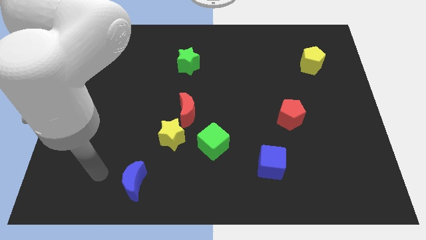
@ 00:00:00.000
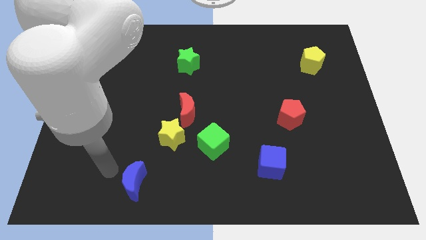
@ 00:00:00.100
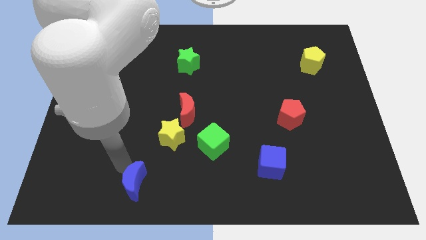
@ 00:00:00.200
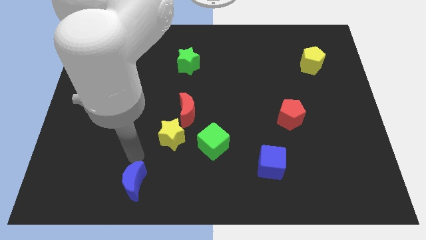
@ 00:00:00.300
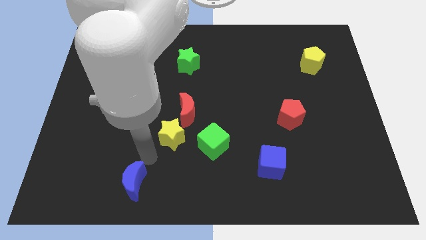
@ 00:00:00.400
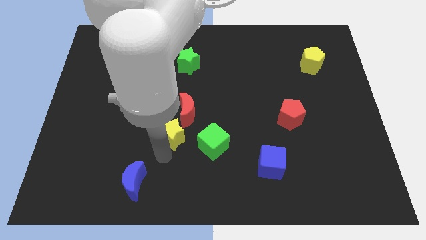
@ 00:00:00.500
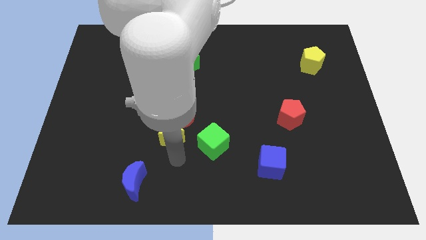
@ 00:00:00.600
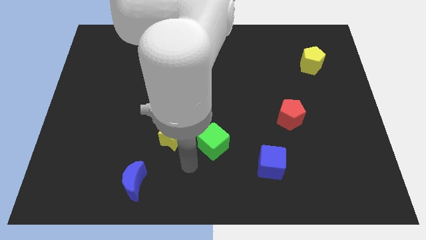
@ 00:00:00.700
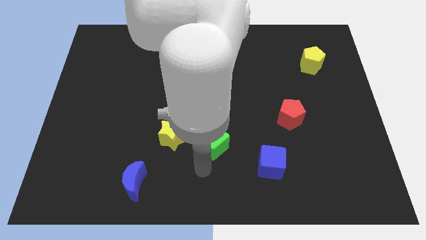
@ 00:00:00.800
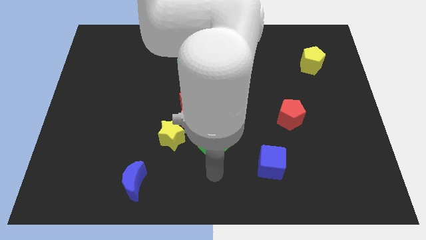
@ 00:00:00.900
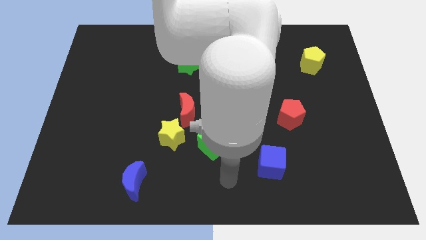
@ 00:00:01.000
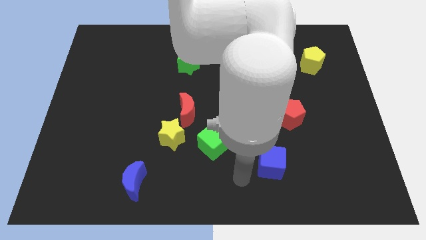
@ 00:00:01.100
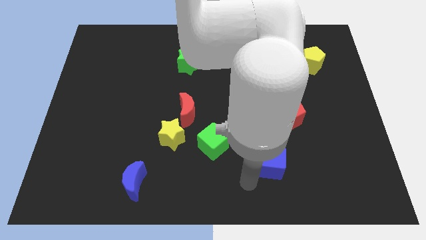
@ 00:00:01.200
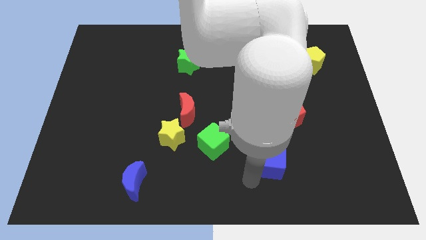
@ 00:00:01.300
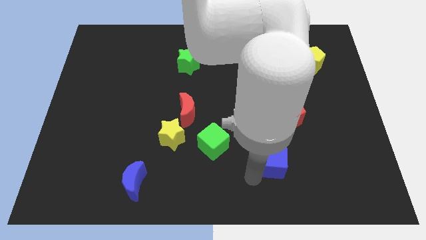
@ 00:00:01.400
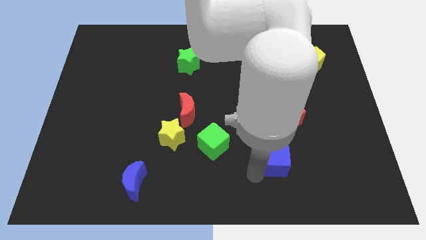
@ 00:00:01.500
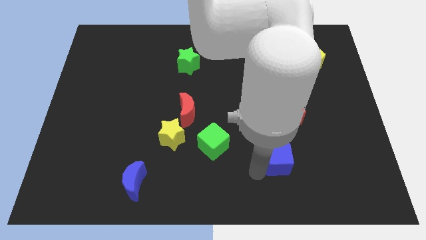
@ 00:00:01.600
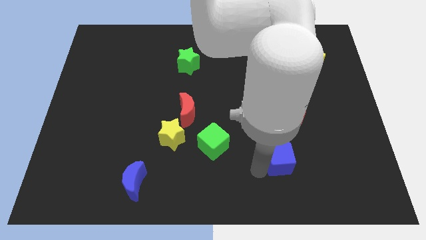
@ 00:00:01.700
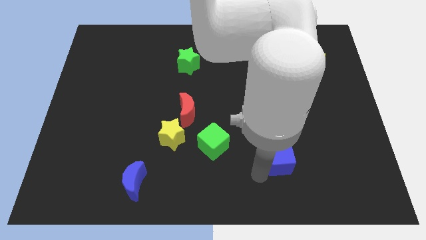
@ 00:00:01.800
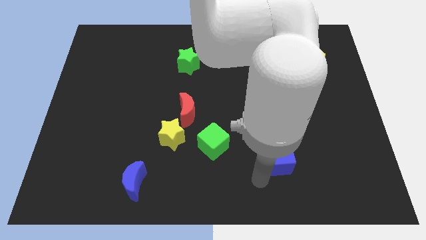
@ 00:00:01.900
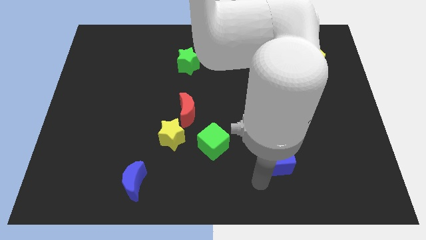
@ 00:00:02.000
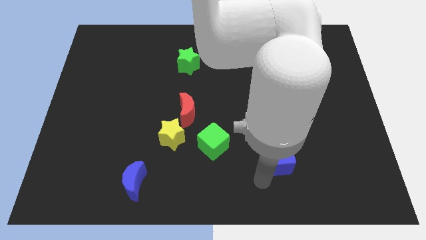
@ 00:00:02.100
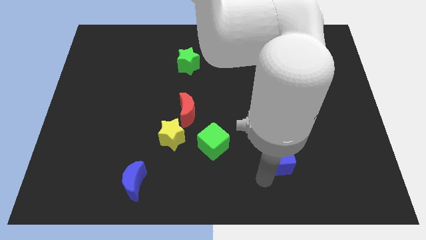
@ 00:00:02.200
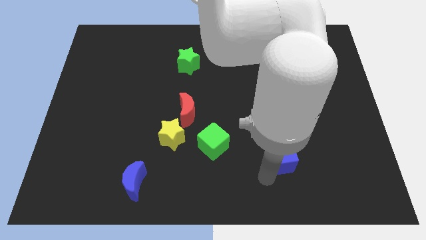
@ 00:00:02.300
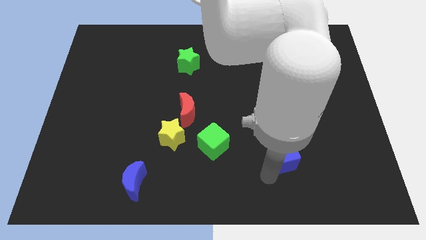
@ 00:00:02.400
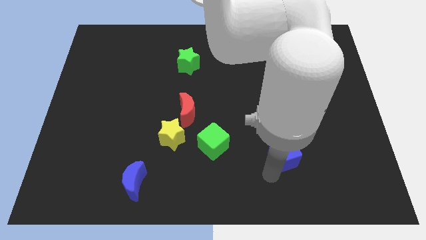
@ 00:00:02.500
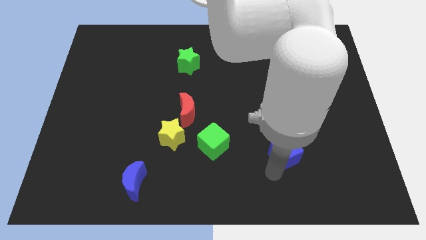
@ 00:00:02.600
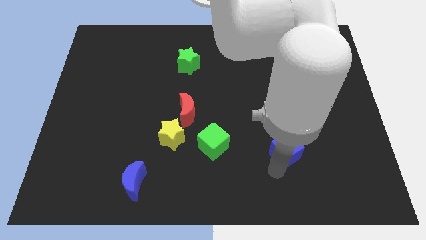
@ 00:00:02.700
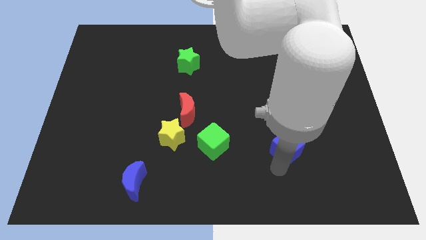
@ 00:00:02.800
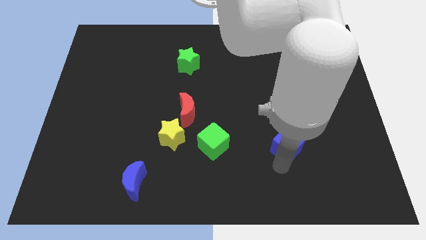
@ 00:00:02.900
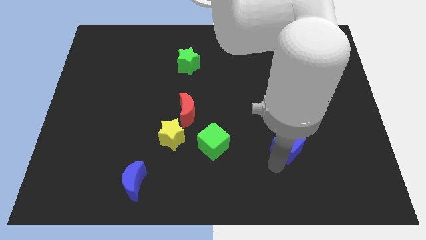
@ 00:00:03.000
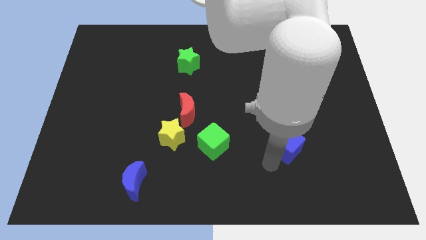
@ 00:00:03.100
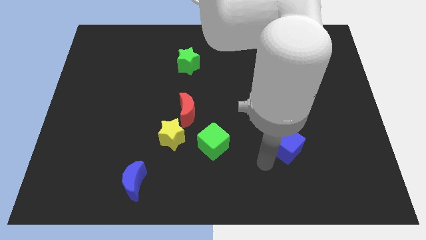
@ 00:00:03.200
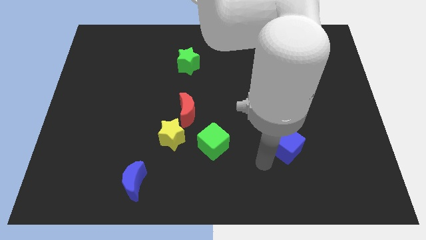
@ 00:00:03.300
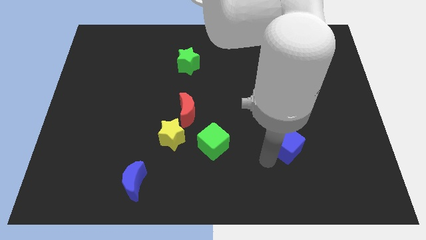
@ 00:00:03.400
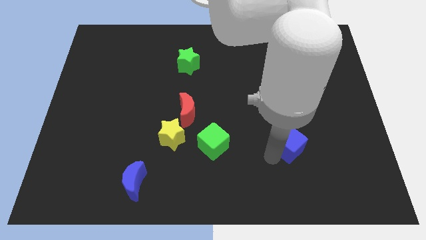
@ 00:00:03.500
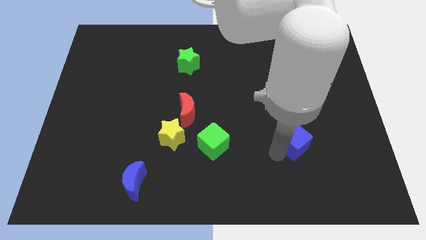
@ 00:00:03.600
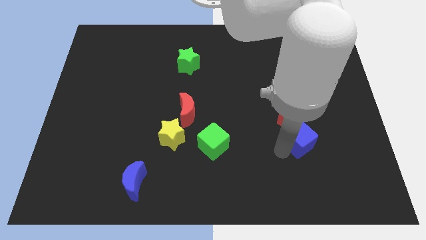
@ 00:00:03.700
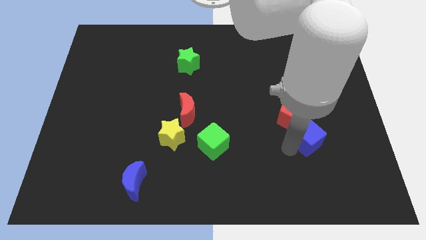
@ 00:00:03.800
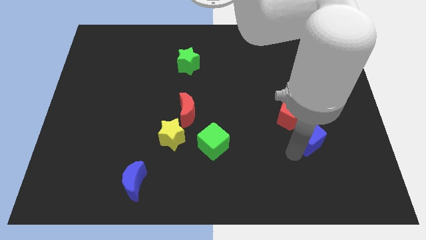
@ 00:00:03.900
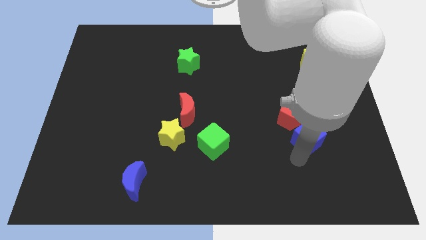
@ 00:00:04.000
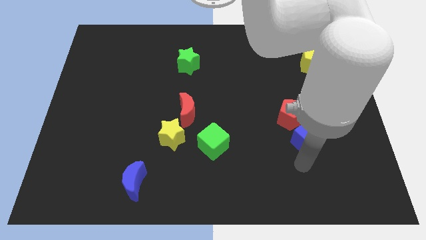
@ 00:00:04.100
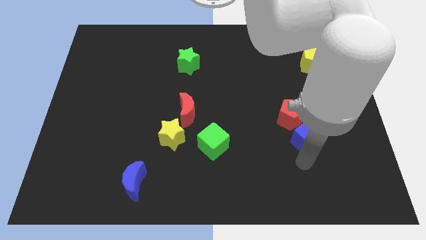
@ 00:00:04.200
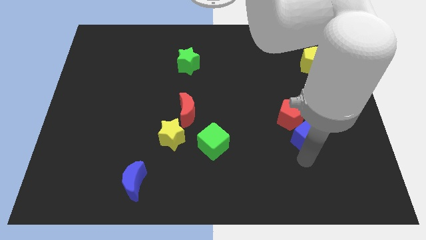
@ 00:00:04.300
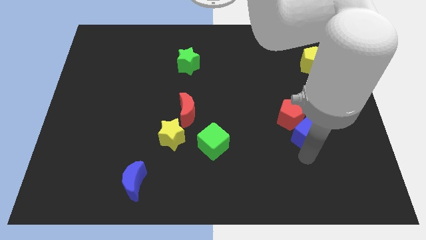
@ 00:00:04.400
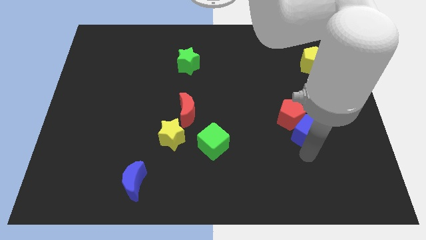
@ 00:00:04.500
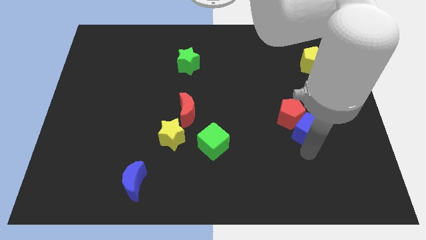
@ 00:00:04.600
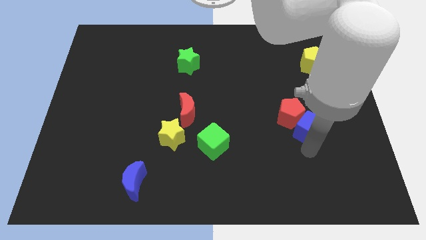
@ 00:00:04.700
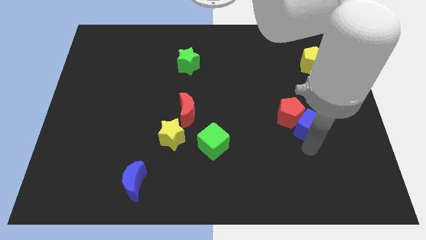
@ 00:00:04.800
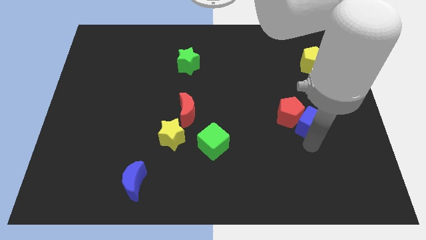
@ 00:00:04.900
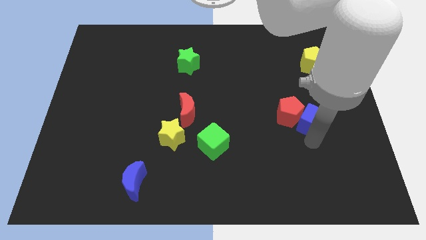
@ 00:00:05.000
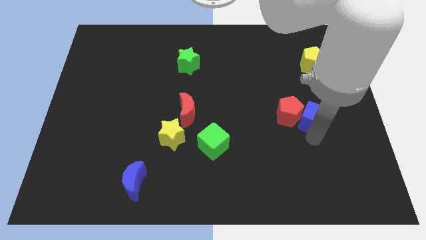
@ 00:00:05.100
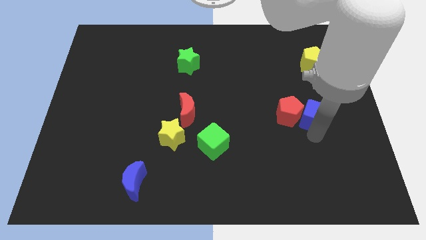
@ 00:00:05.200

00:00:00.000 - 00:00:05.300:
push the blue cube to the top right side of the red pentagon

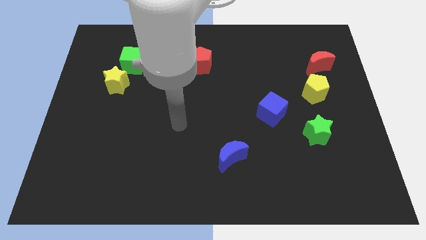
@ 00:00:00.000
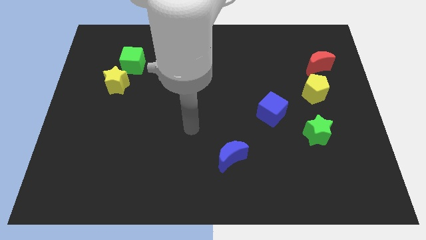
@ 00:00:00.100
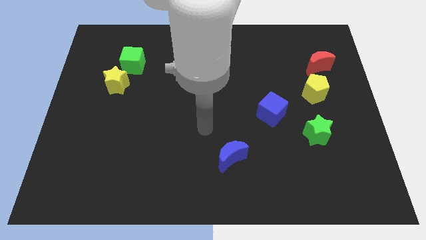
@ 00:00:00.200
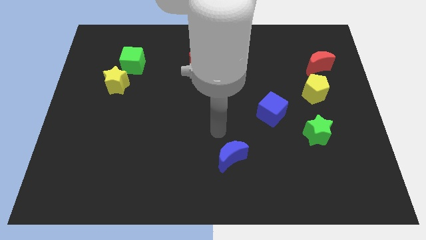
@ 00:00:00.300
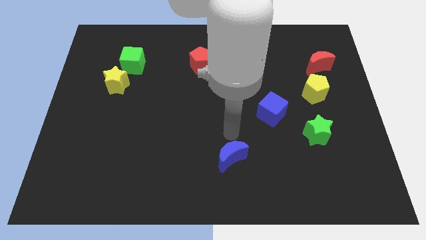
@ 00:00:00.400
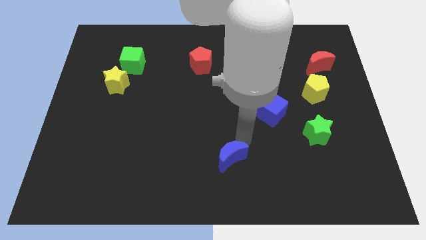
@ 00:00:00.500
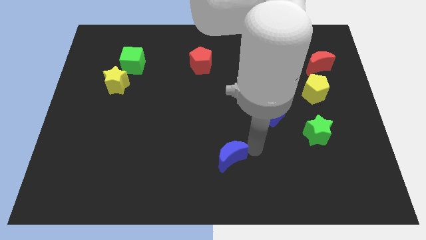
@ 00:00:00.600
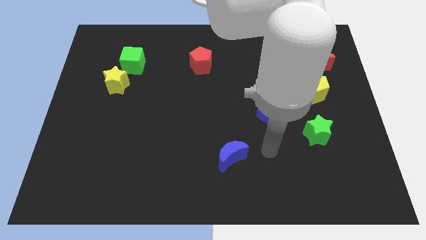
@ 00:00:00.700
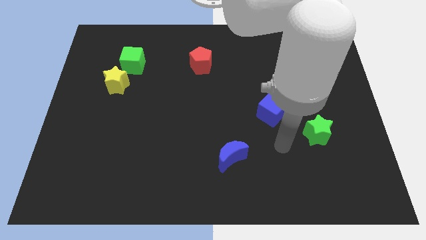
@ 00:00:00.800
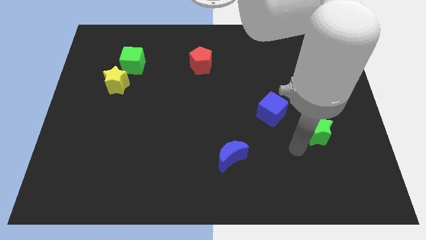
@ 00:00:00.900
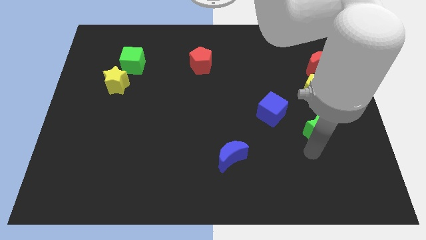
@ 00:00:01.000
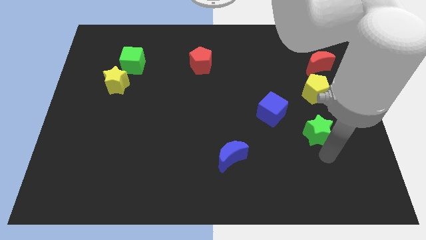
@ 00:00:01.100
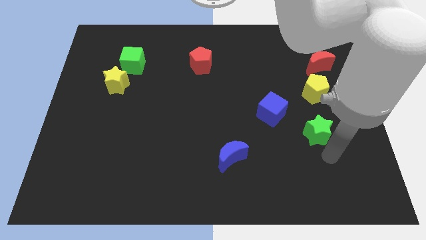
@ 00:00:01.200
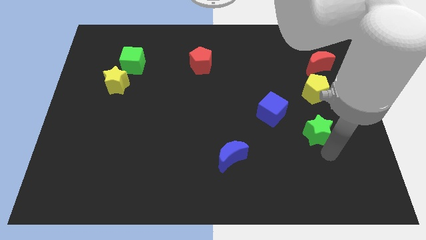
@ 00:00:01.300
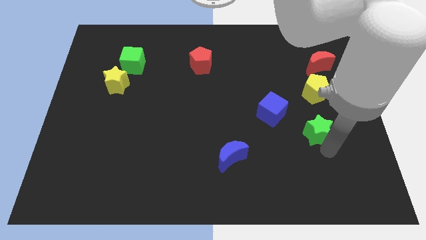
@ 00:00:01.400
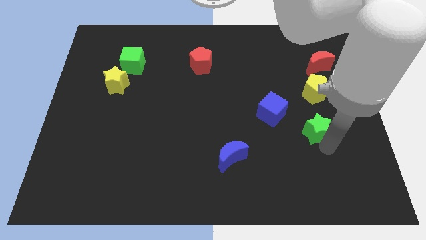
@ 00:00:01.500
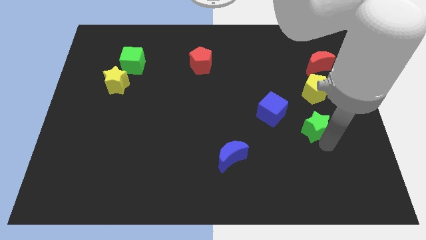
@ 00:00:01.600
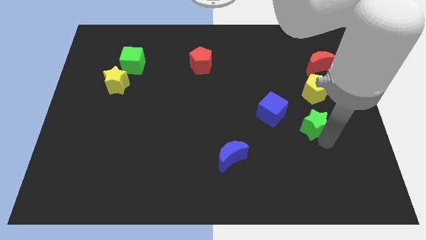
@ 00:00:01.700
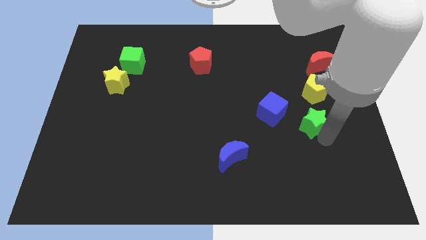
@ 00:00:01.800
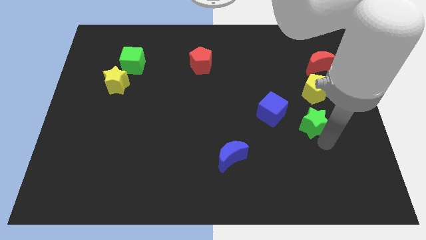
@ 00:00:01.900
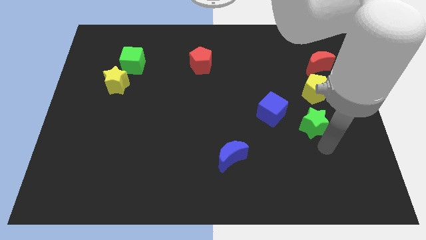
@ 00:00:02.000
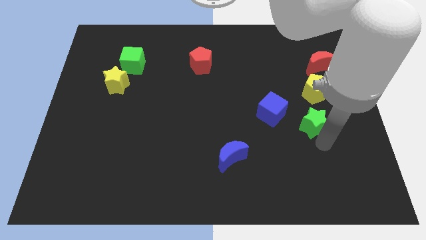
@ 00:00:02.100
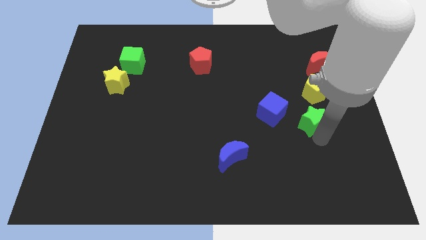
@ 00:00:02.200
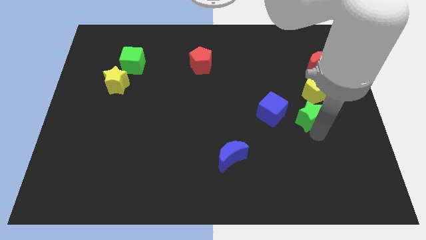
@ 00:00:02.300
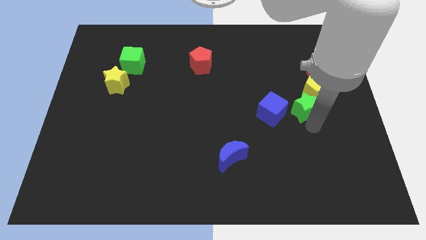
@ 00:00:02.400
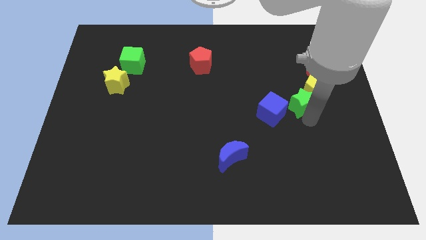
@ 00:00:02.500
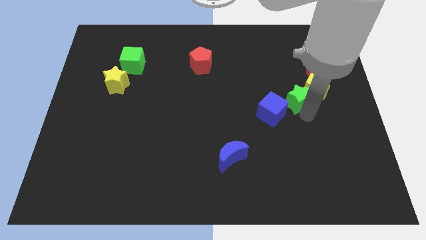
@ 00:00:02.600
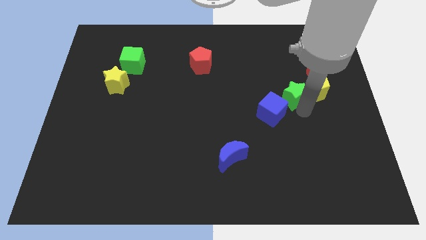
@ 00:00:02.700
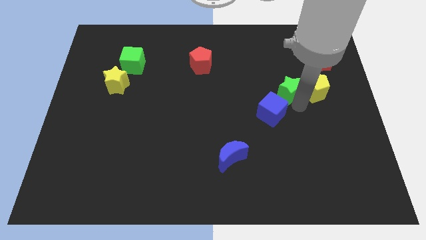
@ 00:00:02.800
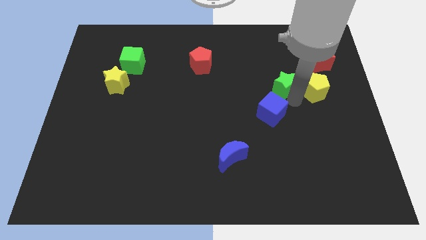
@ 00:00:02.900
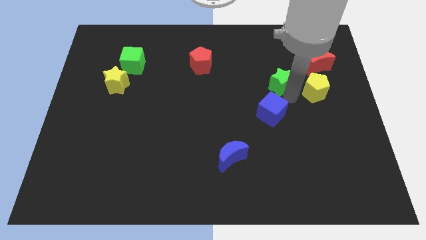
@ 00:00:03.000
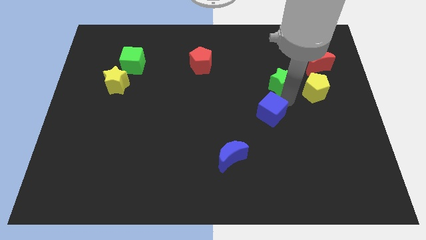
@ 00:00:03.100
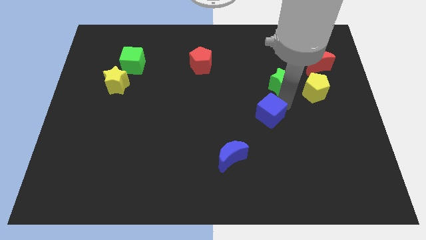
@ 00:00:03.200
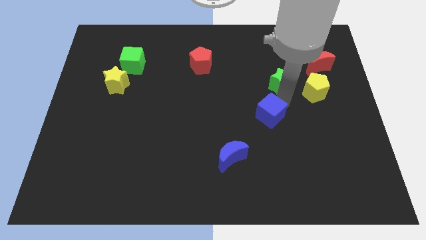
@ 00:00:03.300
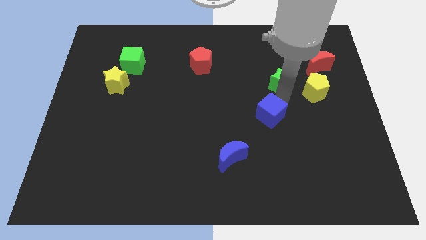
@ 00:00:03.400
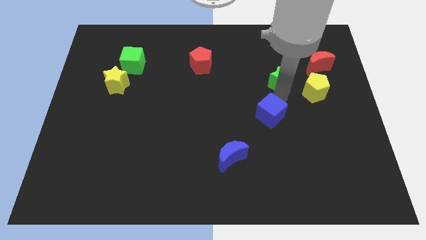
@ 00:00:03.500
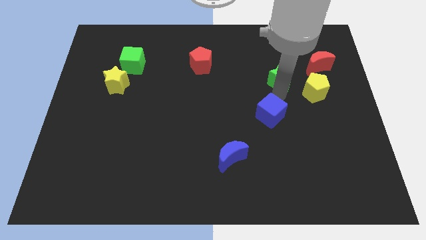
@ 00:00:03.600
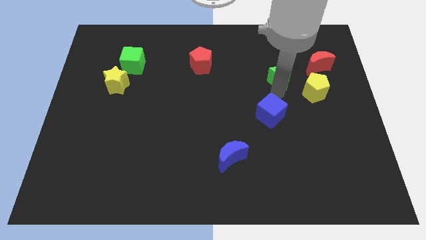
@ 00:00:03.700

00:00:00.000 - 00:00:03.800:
put the green star to the left side of the red moon
